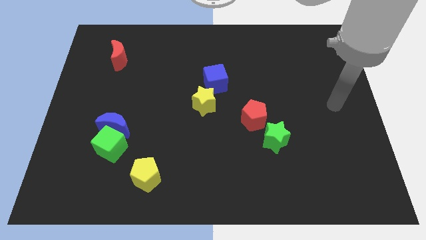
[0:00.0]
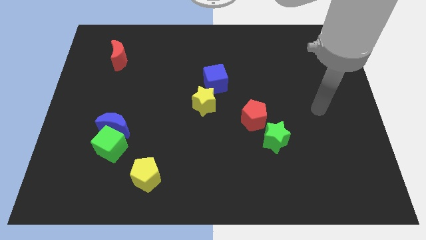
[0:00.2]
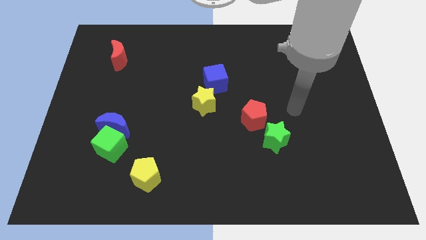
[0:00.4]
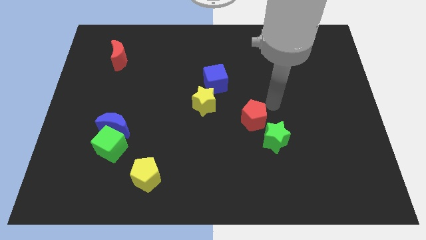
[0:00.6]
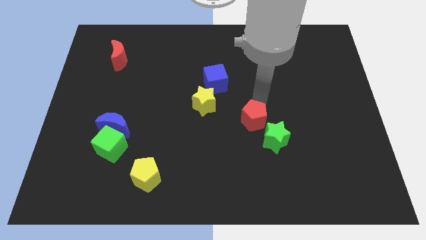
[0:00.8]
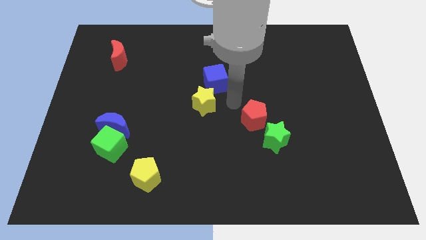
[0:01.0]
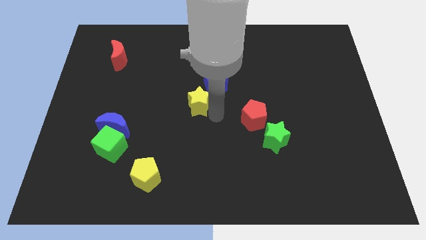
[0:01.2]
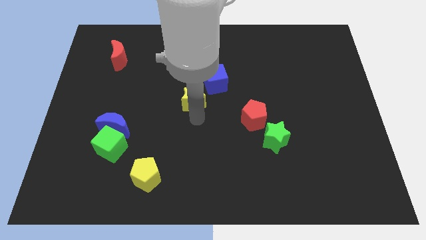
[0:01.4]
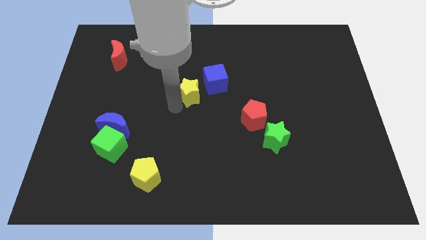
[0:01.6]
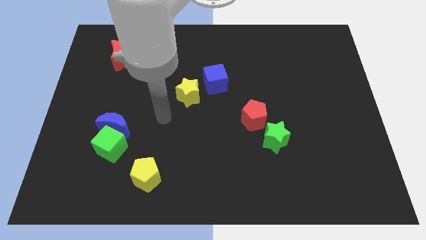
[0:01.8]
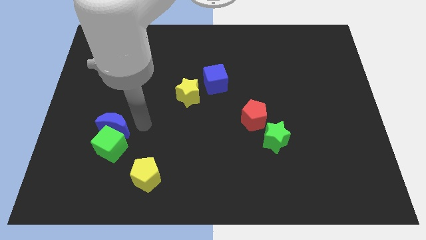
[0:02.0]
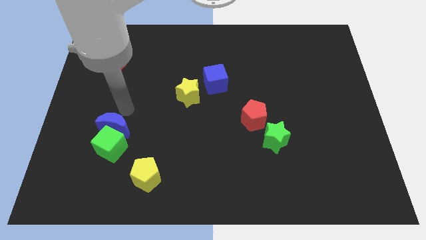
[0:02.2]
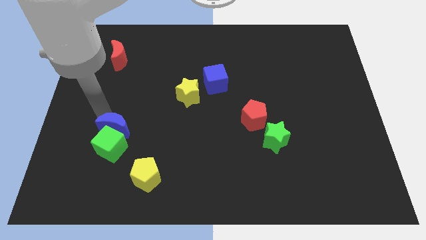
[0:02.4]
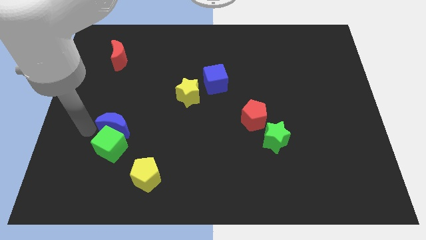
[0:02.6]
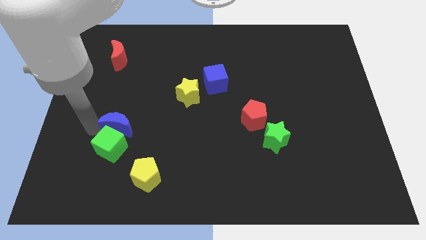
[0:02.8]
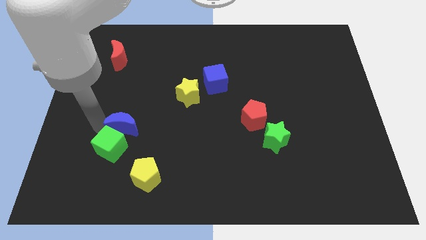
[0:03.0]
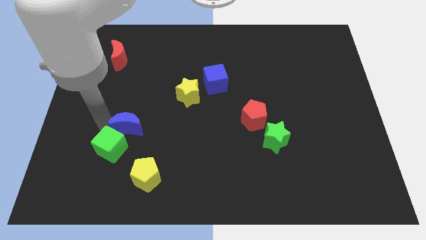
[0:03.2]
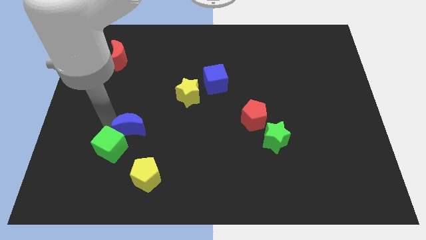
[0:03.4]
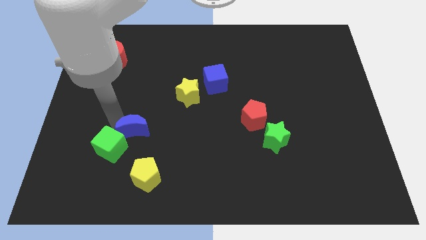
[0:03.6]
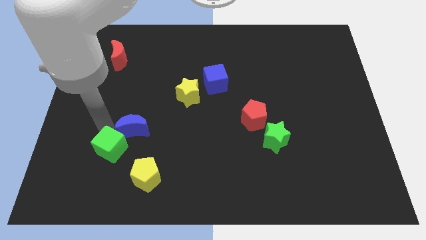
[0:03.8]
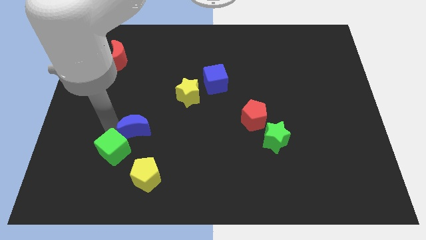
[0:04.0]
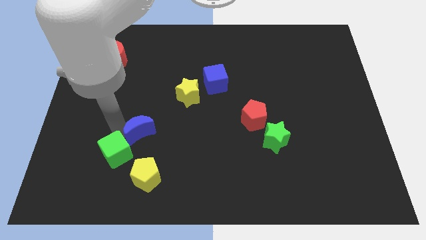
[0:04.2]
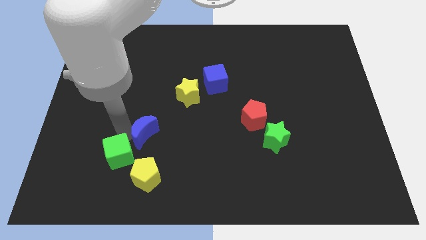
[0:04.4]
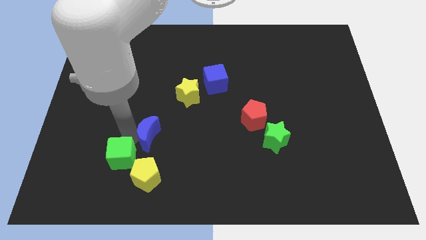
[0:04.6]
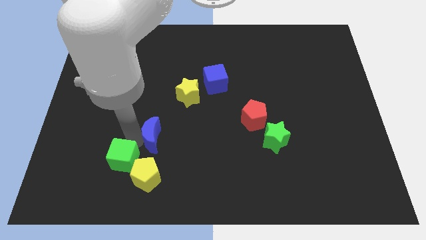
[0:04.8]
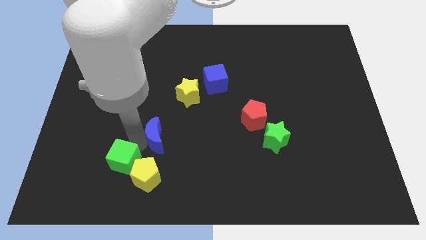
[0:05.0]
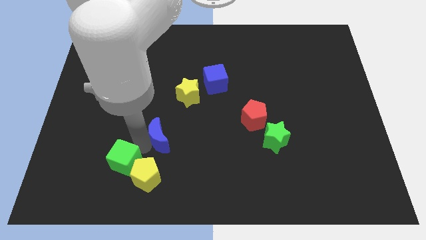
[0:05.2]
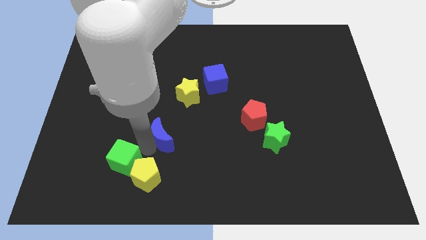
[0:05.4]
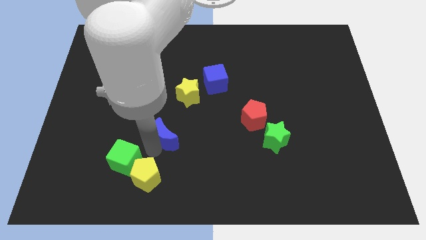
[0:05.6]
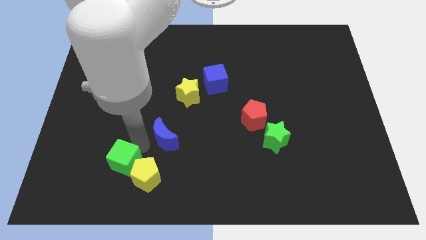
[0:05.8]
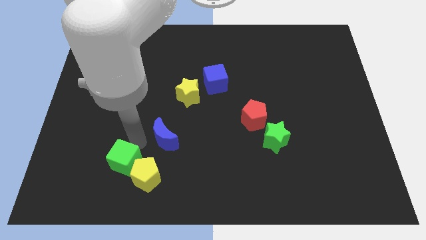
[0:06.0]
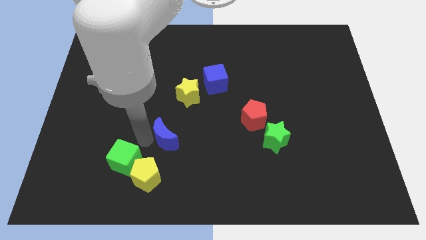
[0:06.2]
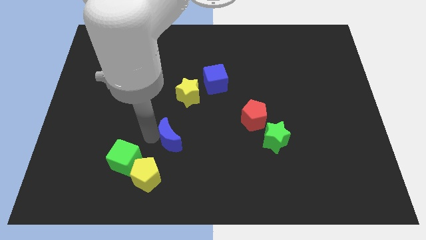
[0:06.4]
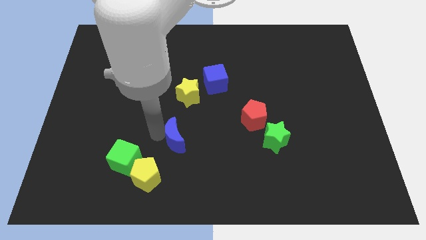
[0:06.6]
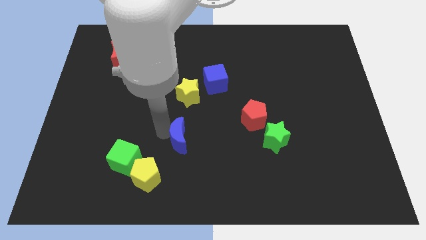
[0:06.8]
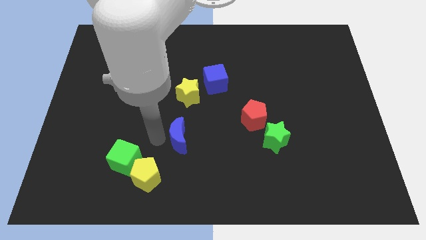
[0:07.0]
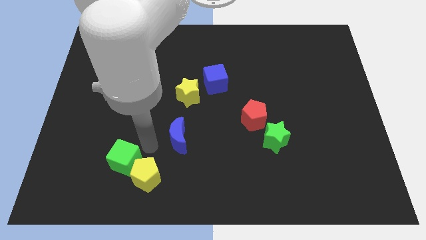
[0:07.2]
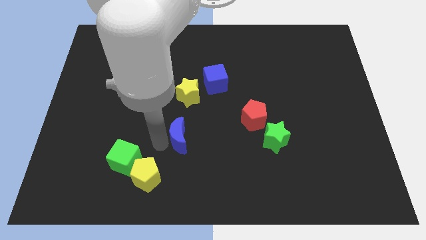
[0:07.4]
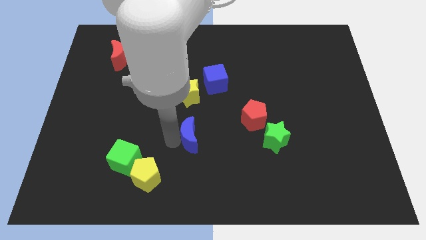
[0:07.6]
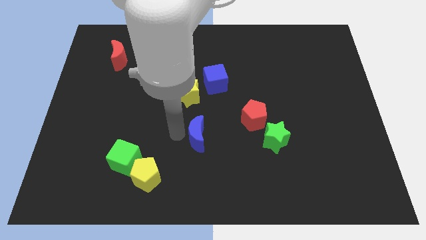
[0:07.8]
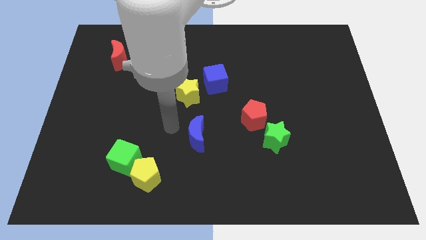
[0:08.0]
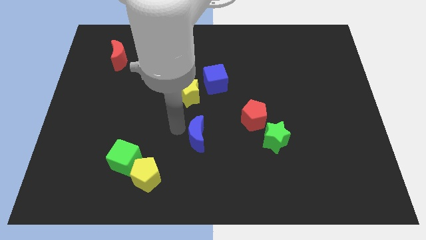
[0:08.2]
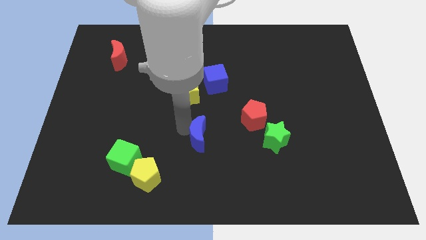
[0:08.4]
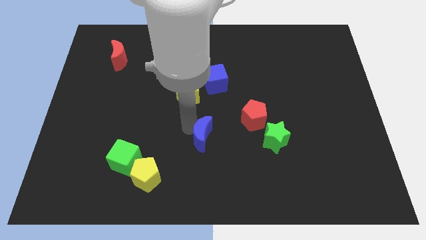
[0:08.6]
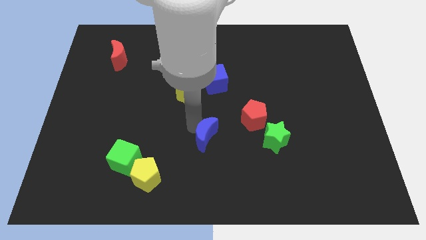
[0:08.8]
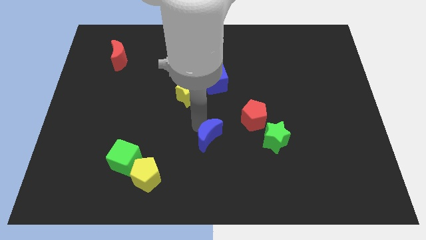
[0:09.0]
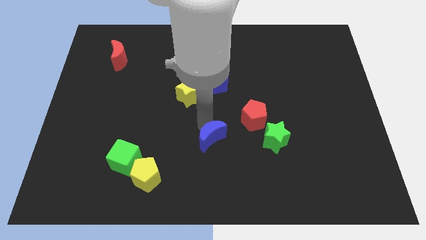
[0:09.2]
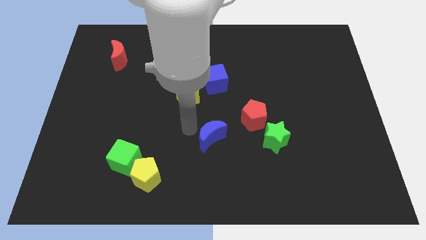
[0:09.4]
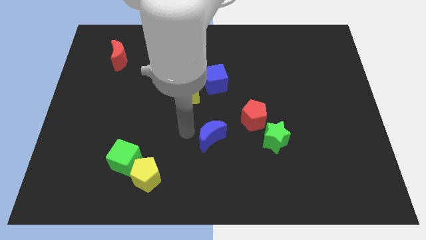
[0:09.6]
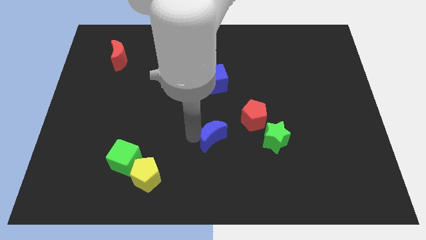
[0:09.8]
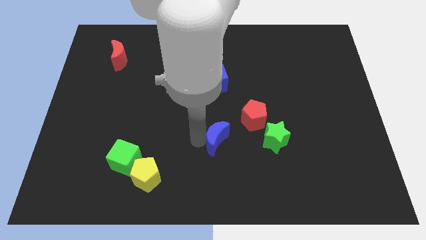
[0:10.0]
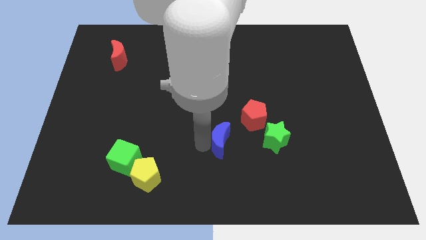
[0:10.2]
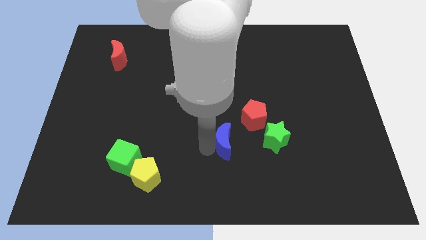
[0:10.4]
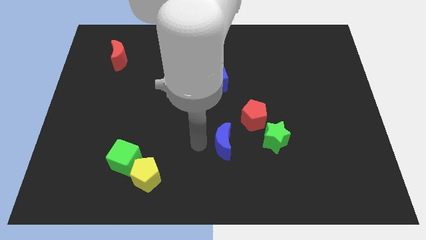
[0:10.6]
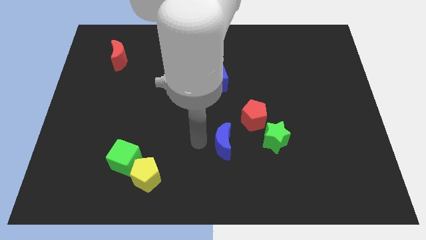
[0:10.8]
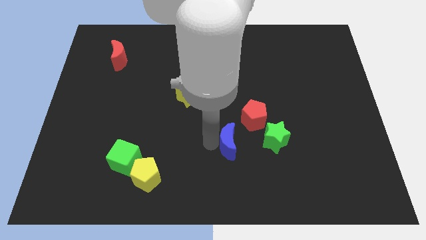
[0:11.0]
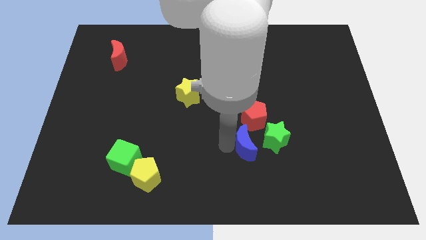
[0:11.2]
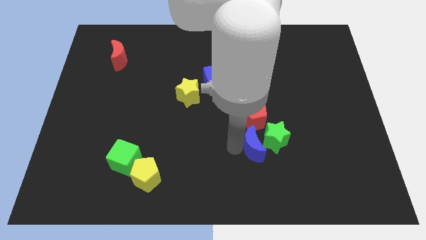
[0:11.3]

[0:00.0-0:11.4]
push the blue moon to the green star

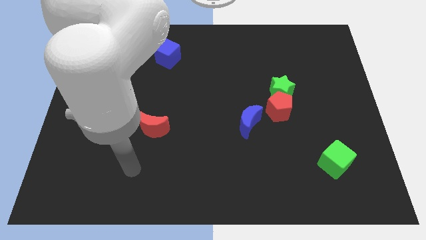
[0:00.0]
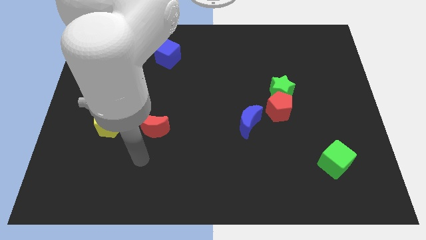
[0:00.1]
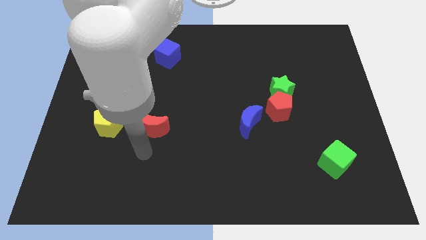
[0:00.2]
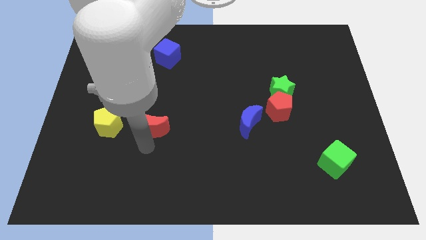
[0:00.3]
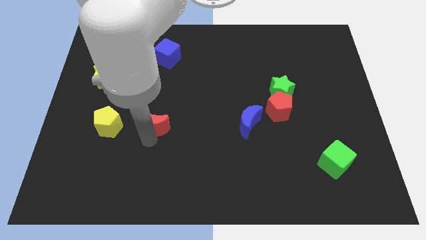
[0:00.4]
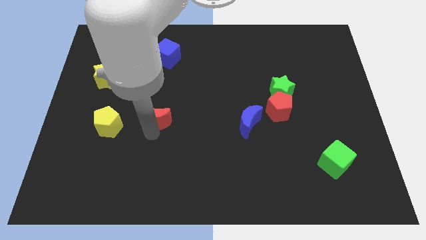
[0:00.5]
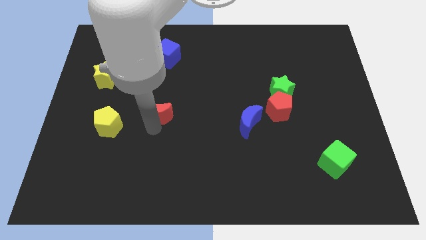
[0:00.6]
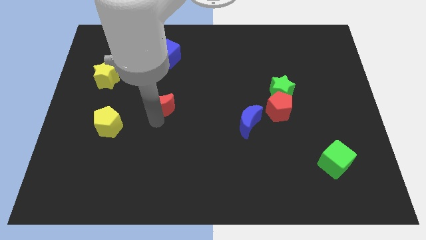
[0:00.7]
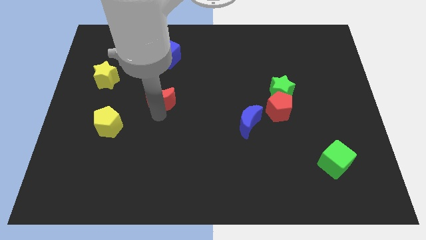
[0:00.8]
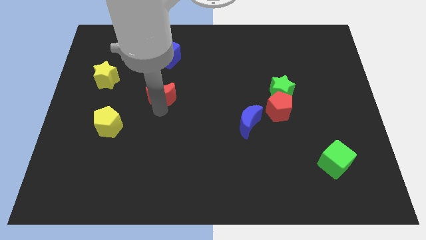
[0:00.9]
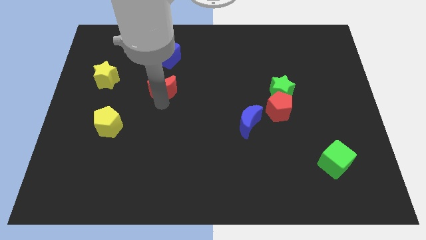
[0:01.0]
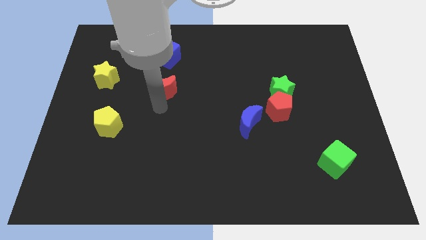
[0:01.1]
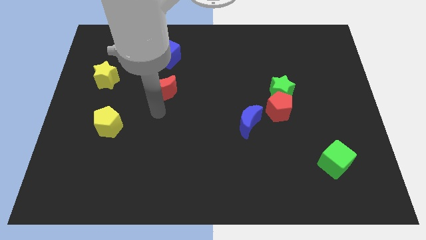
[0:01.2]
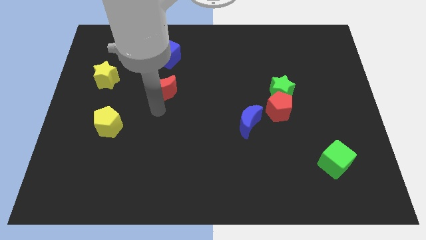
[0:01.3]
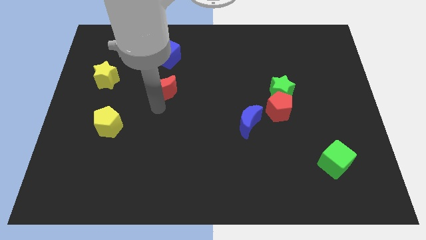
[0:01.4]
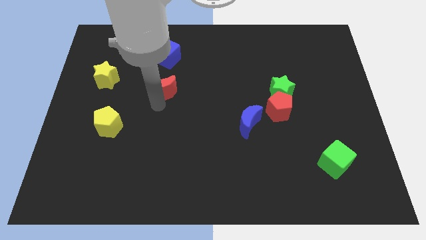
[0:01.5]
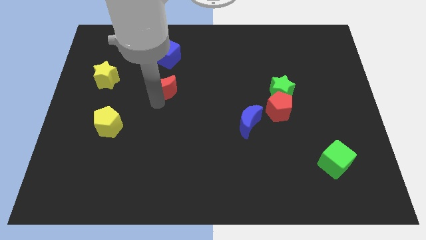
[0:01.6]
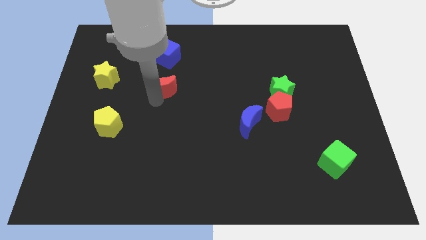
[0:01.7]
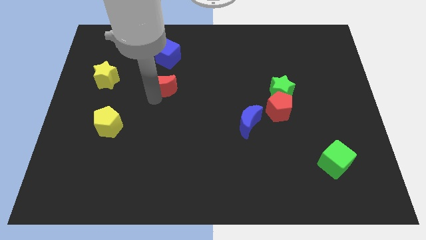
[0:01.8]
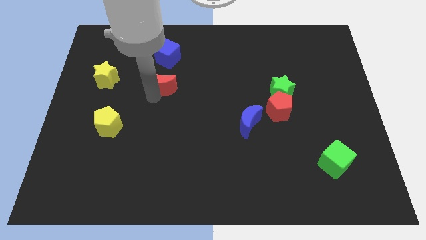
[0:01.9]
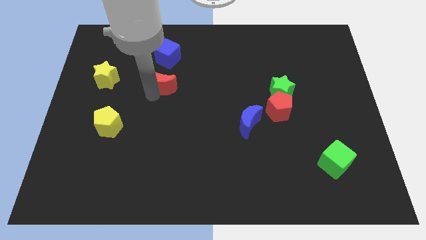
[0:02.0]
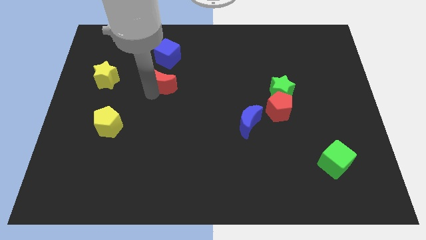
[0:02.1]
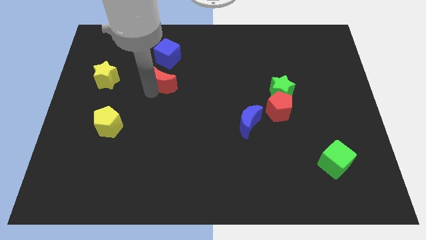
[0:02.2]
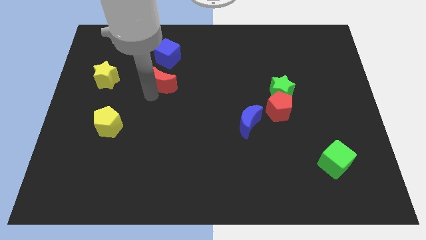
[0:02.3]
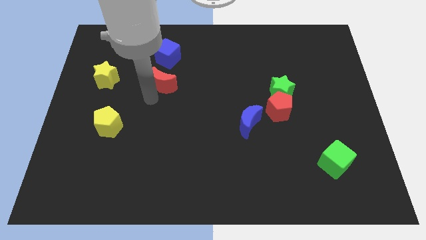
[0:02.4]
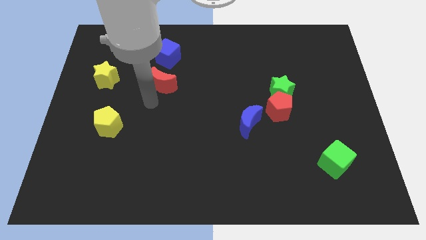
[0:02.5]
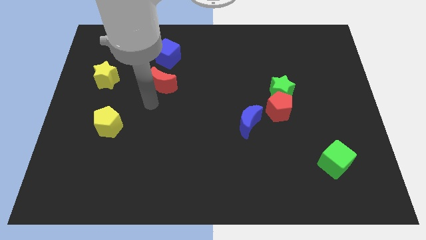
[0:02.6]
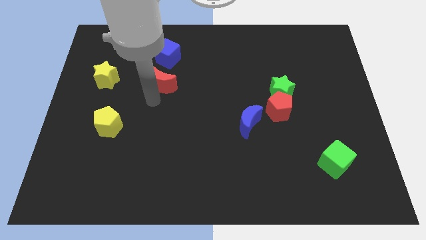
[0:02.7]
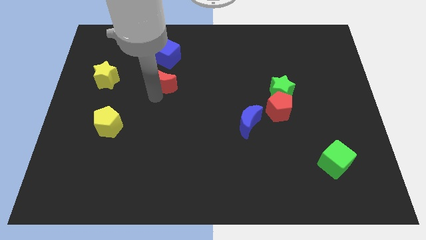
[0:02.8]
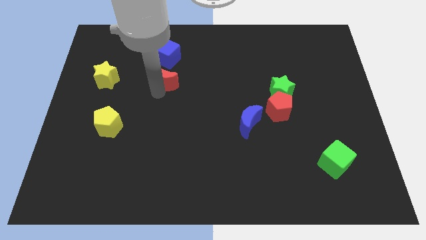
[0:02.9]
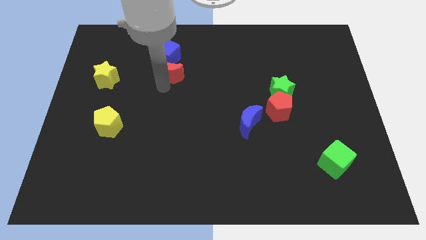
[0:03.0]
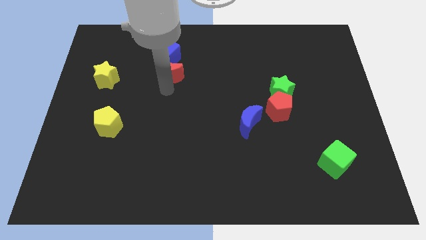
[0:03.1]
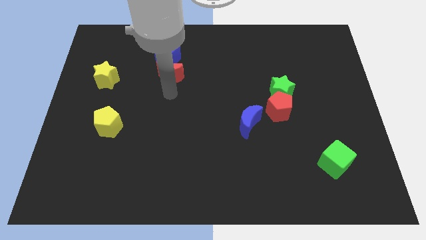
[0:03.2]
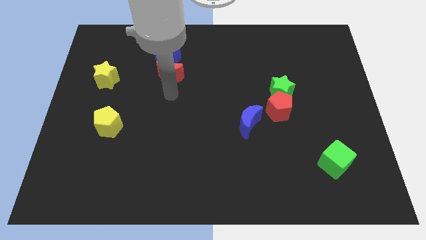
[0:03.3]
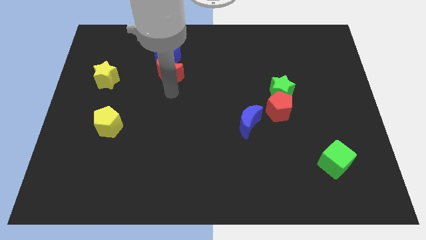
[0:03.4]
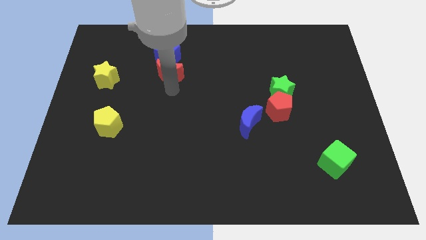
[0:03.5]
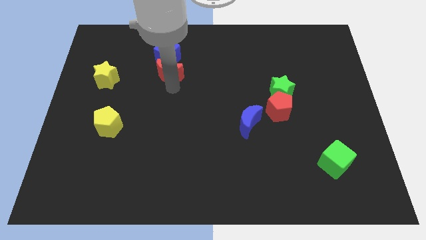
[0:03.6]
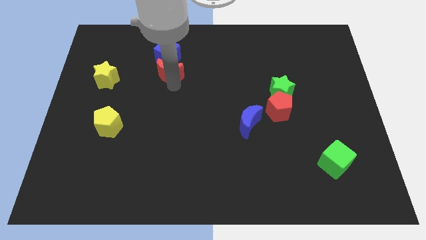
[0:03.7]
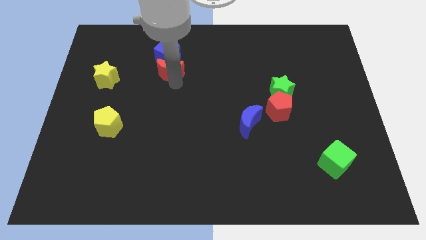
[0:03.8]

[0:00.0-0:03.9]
put the red moon next to the blue cube
